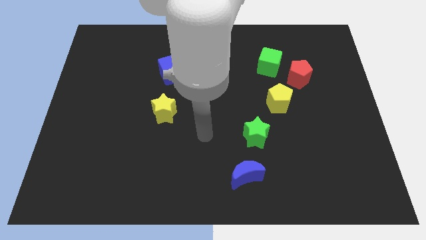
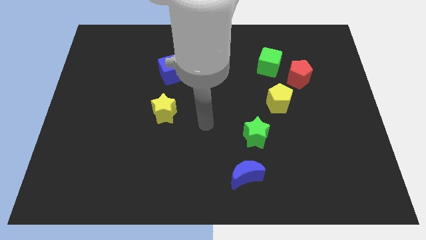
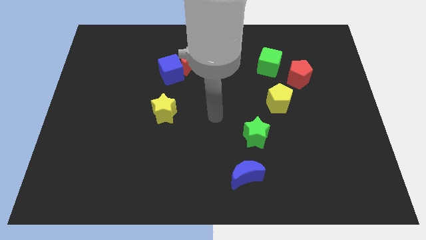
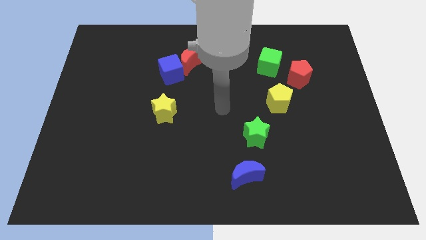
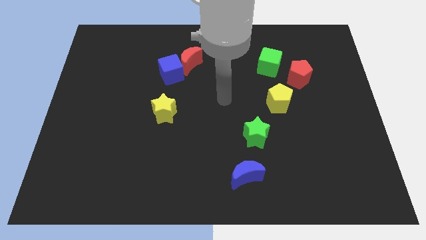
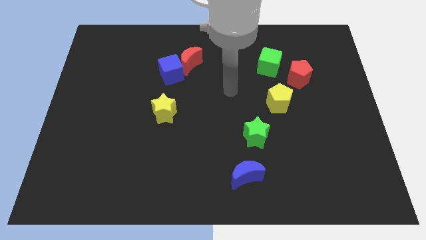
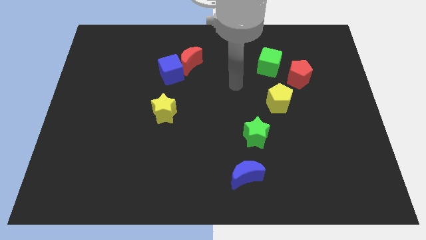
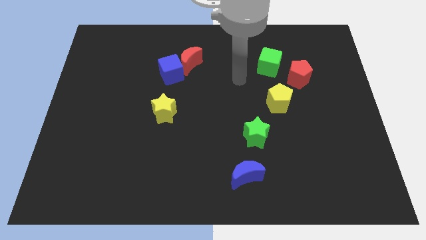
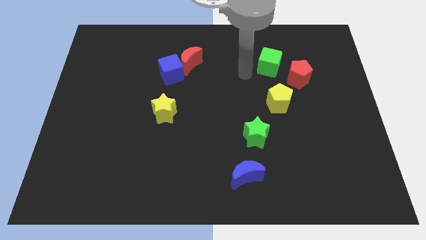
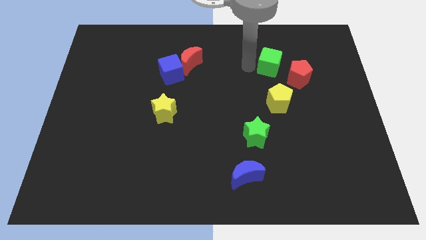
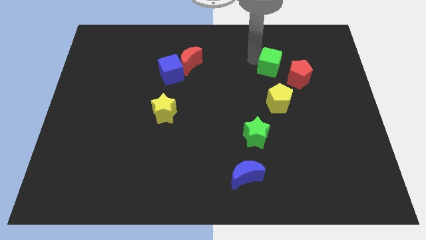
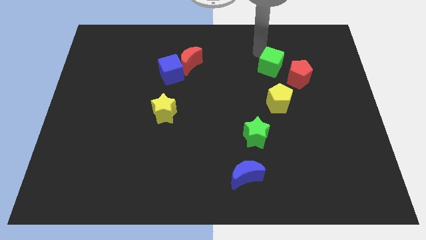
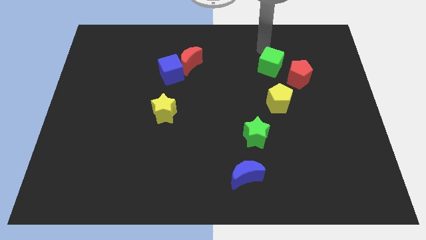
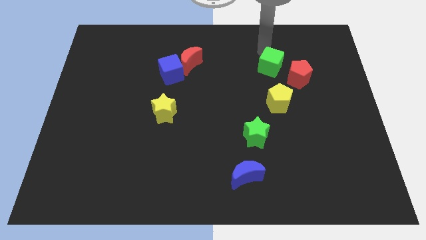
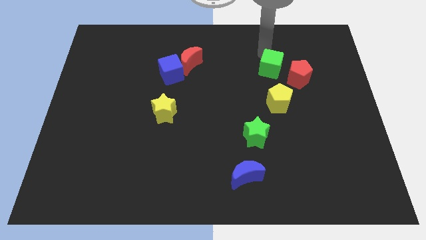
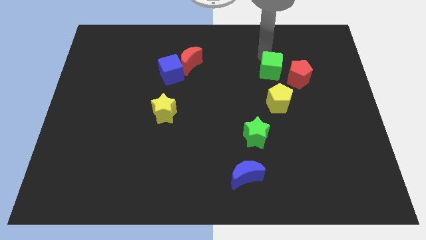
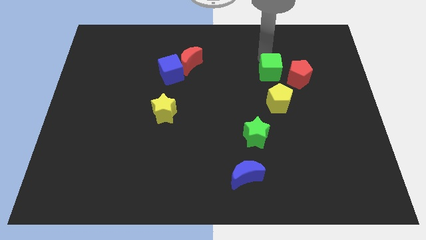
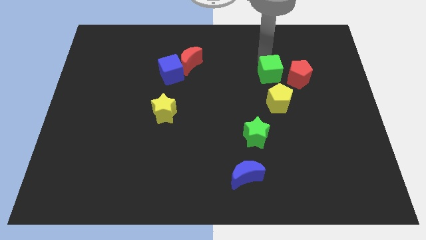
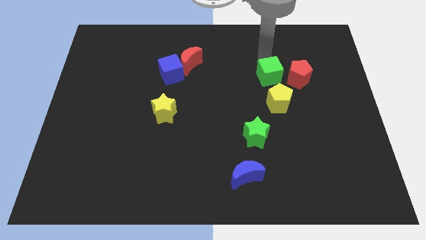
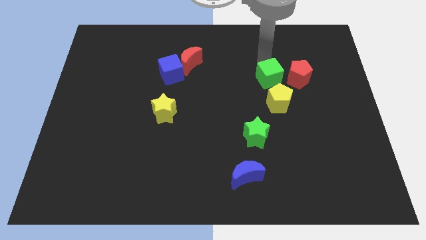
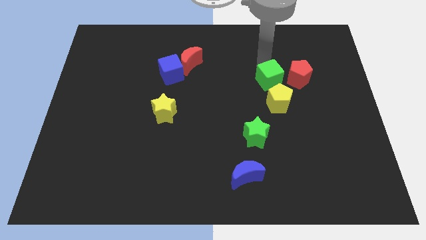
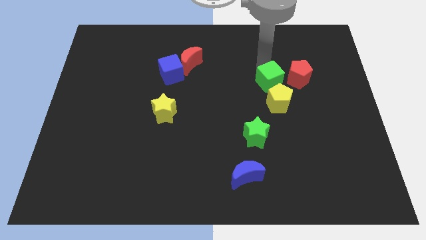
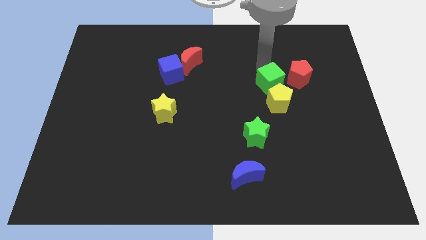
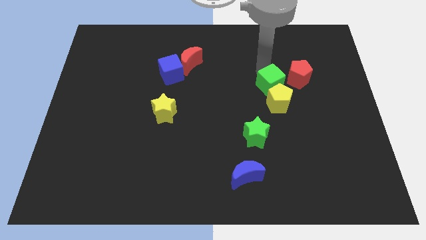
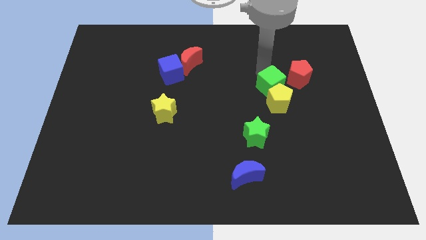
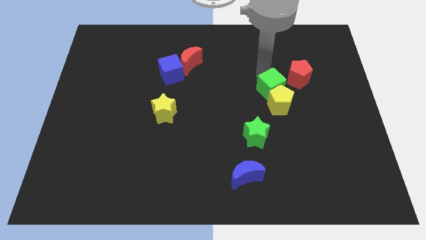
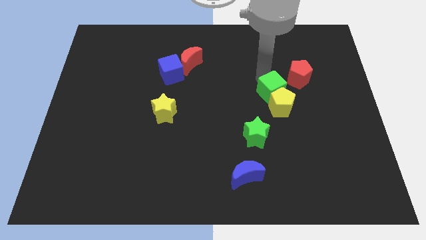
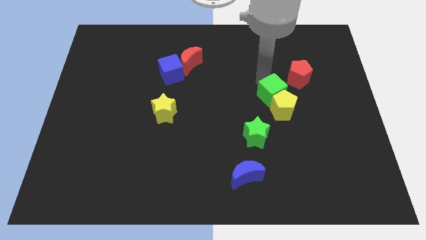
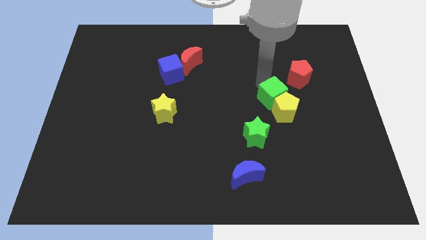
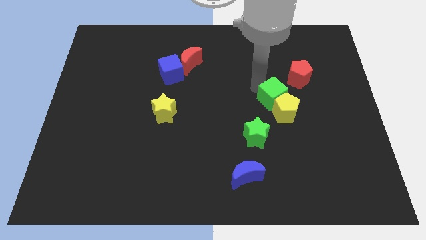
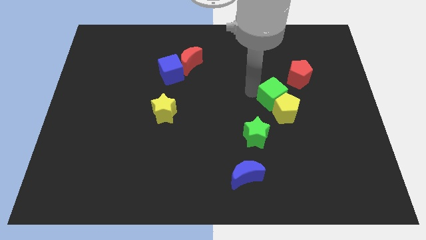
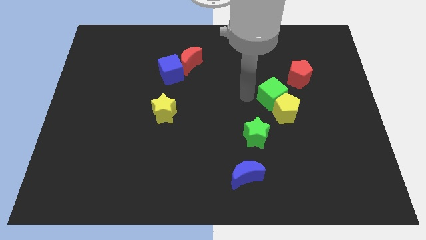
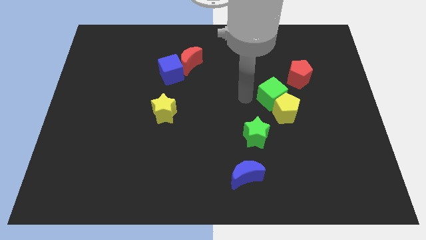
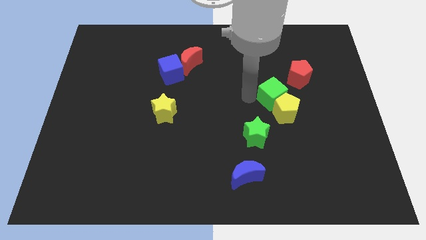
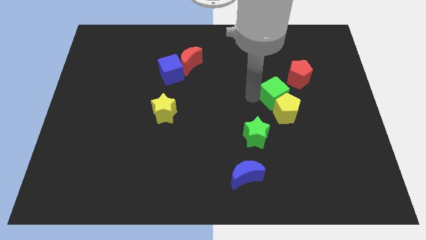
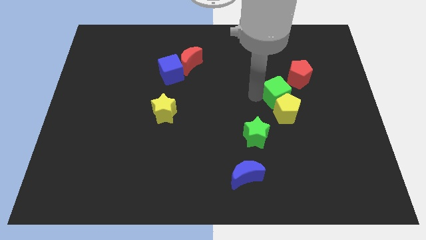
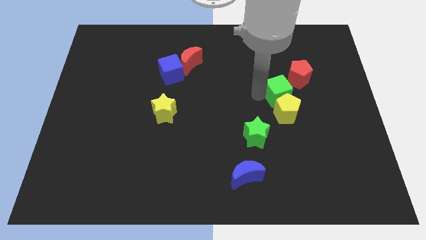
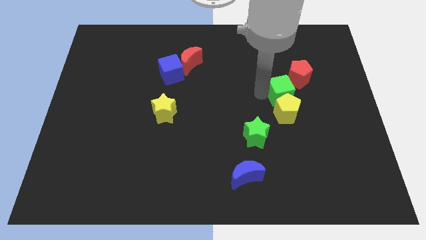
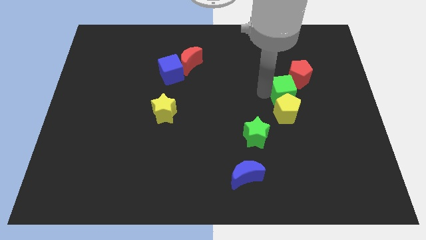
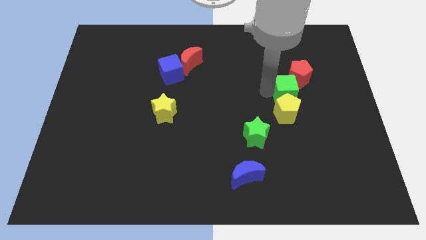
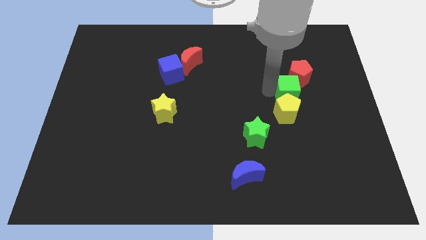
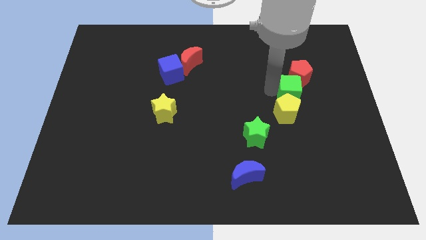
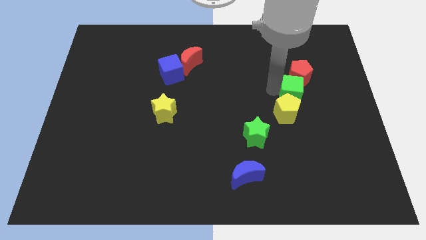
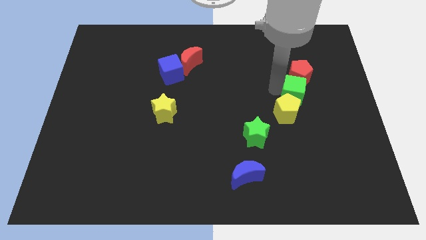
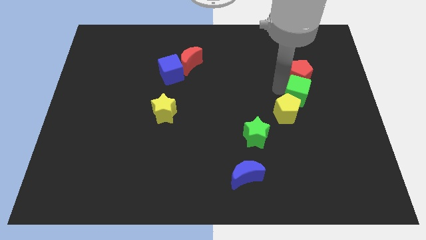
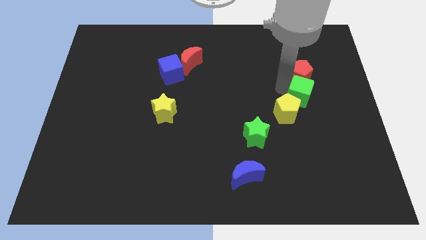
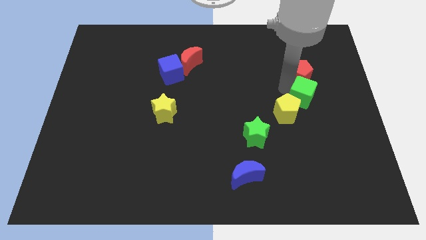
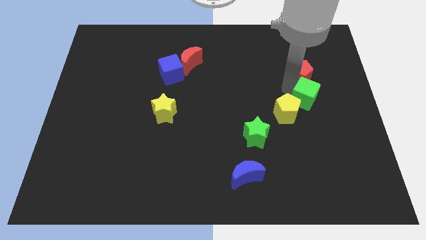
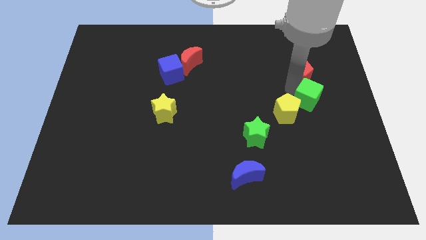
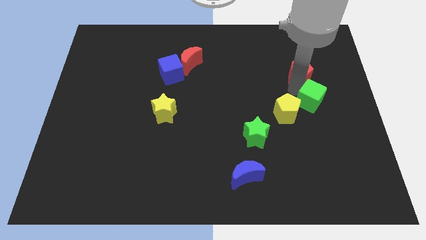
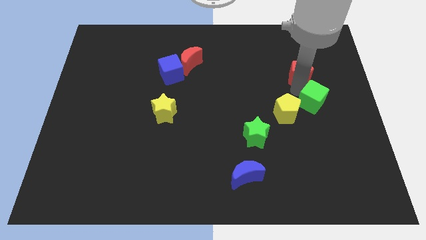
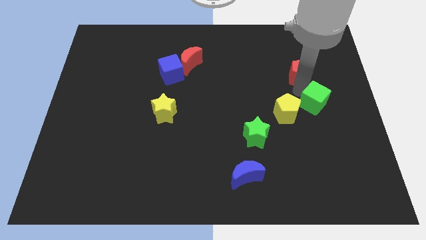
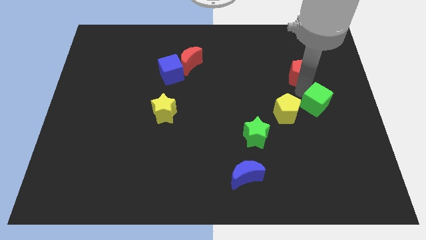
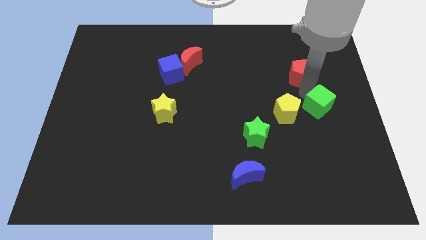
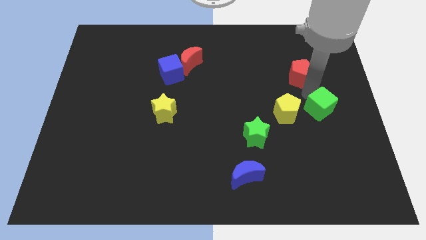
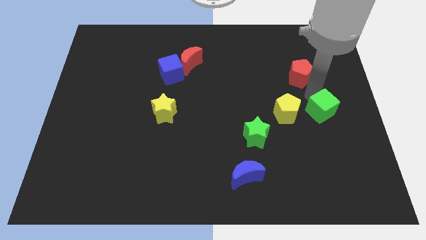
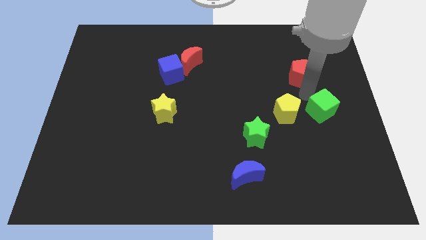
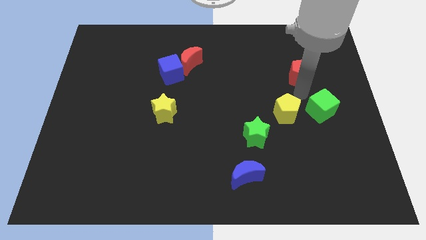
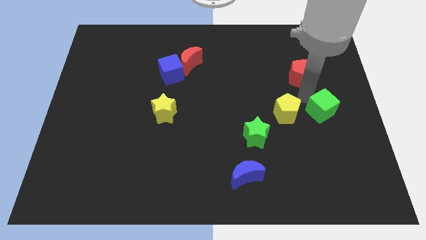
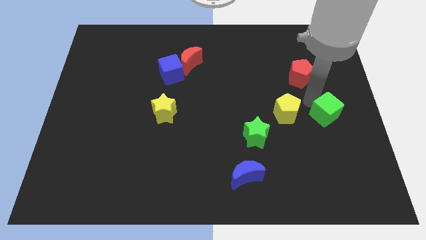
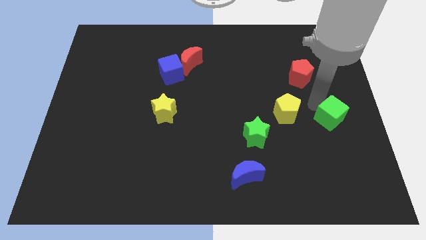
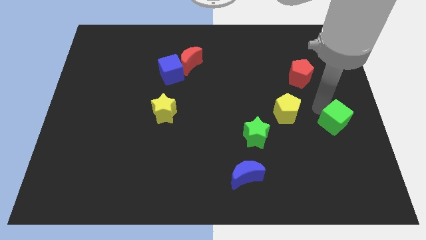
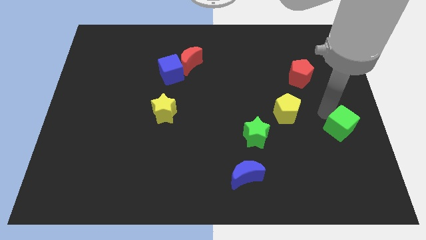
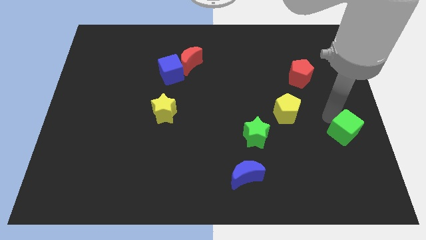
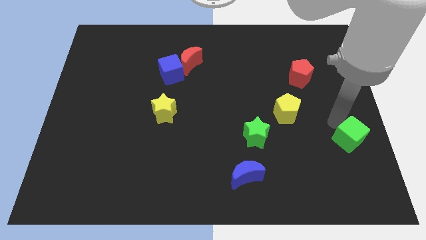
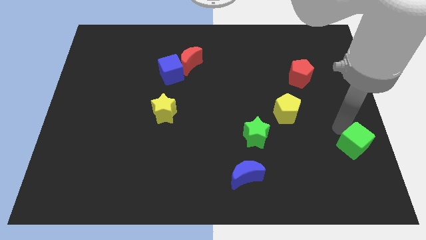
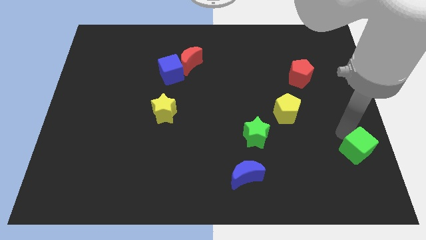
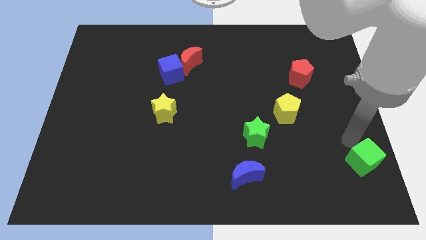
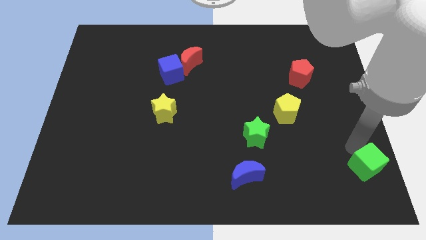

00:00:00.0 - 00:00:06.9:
put the green cube to the bottom right

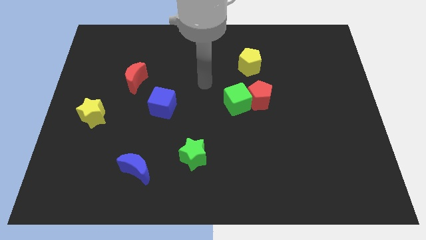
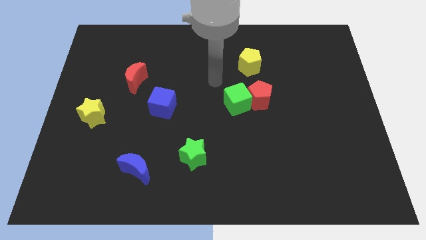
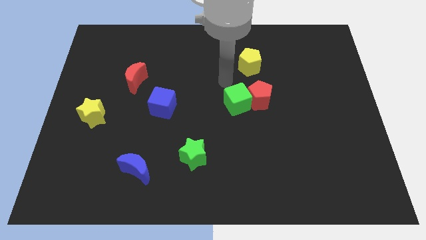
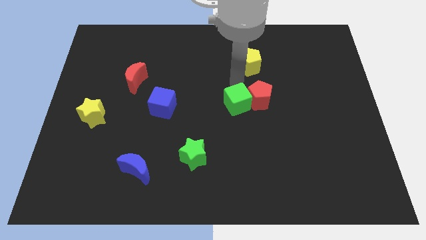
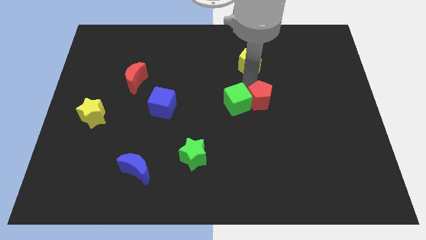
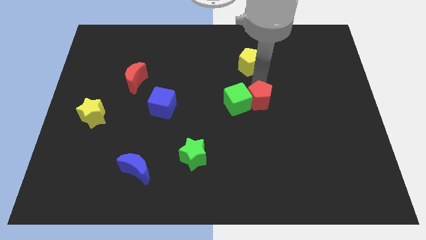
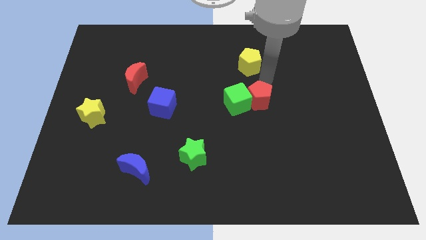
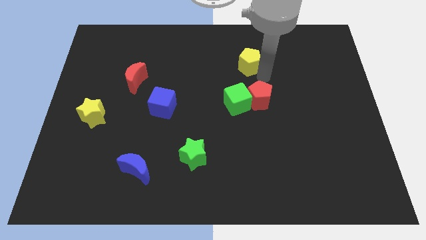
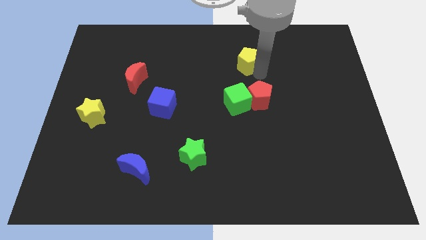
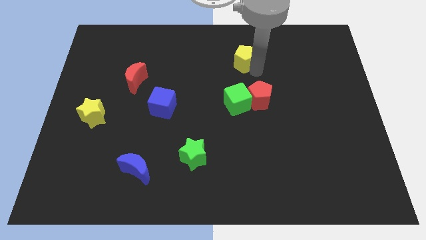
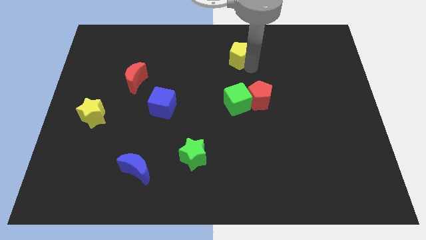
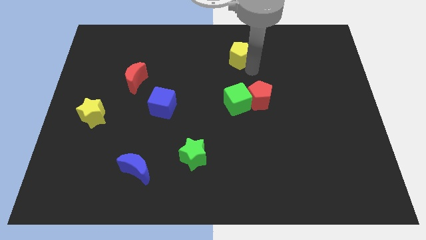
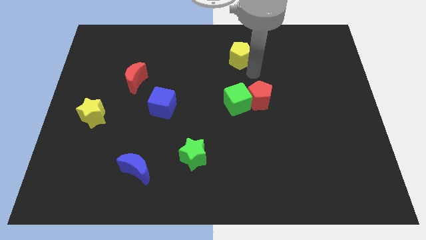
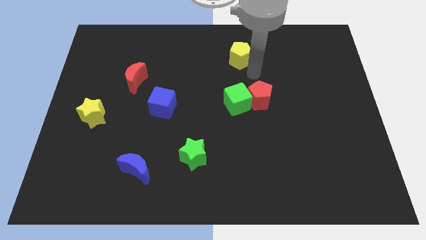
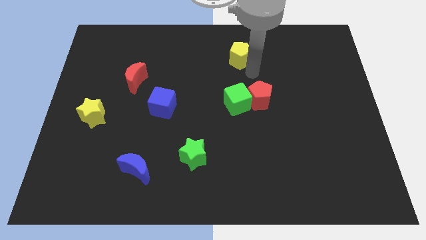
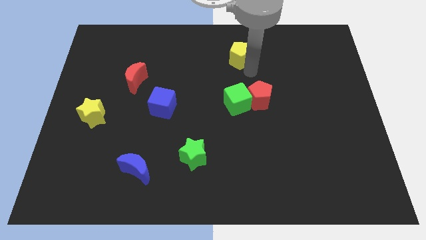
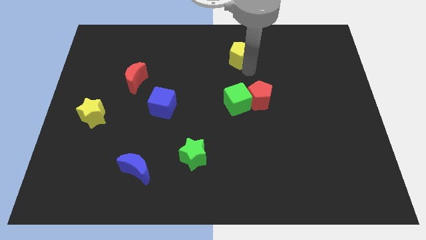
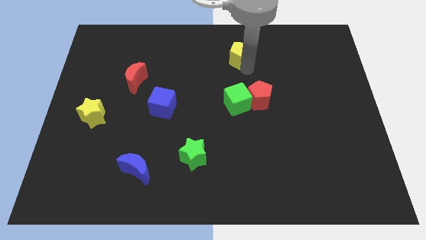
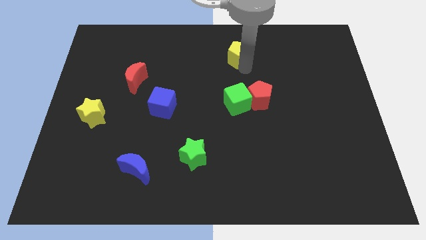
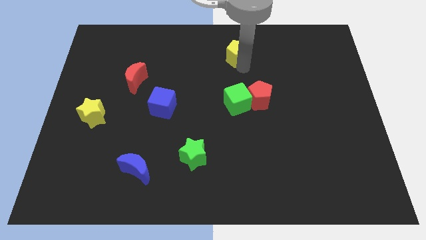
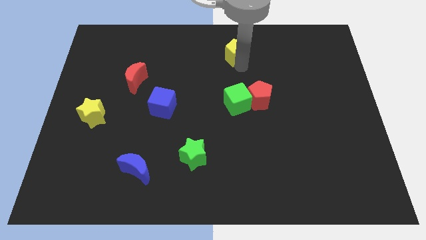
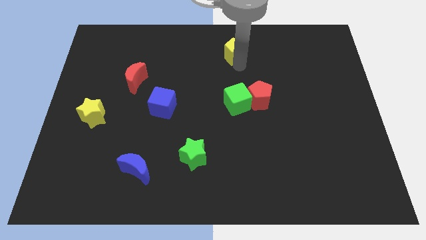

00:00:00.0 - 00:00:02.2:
push the yellow pentagon to the towards your base
